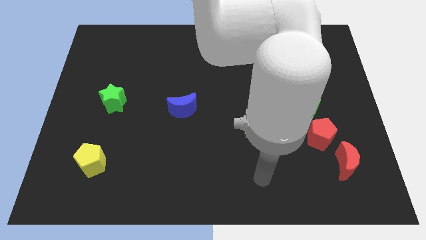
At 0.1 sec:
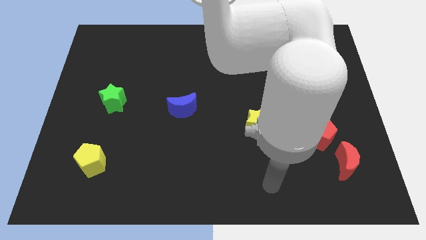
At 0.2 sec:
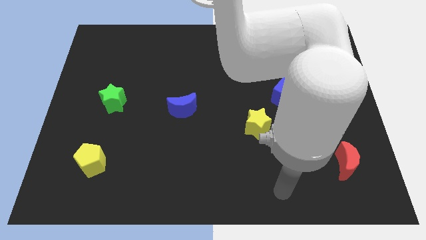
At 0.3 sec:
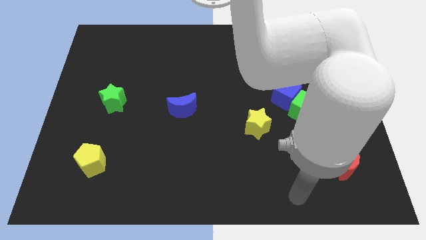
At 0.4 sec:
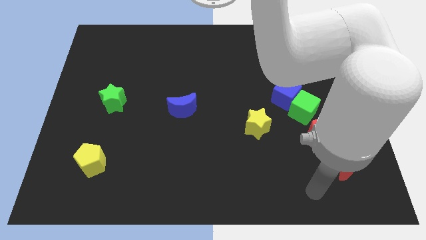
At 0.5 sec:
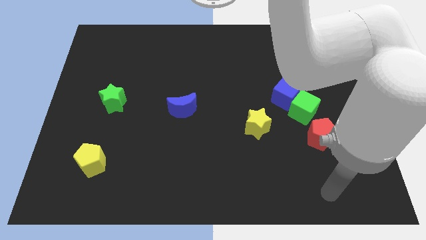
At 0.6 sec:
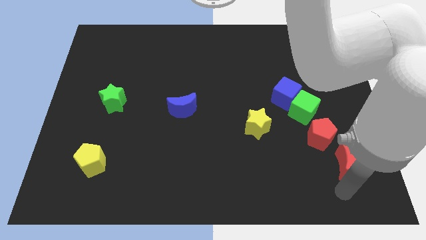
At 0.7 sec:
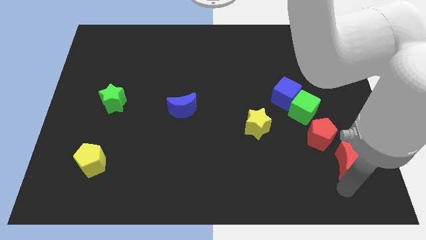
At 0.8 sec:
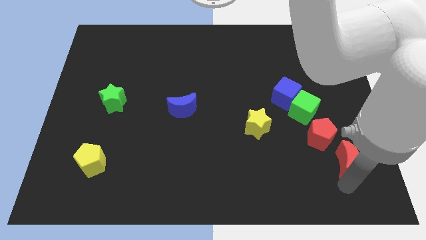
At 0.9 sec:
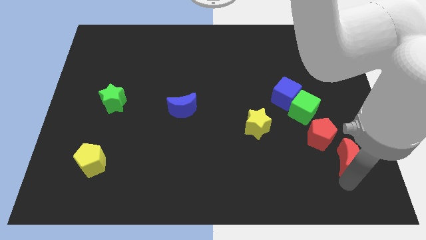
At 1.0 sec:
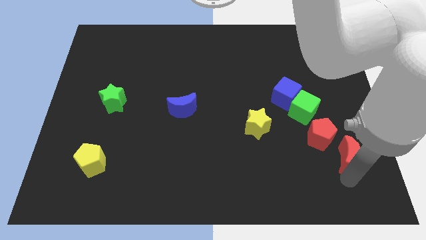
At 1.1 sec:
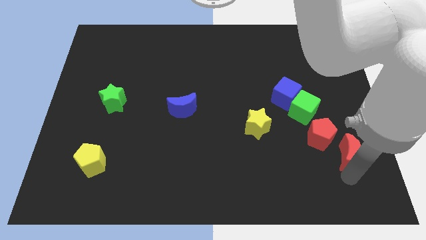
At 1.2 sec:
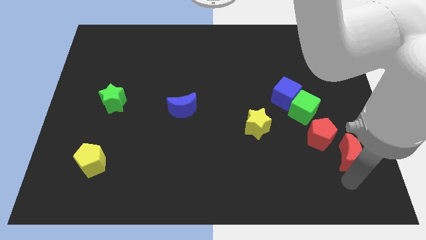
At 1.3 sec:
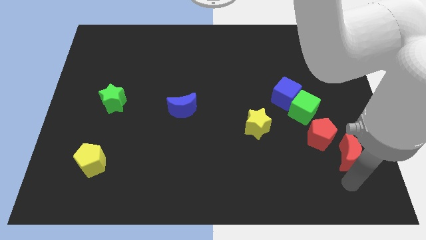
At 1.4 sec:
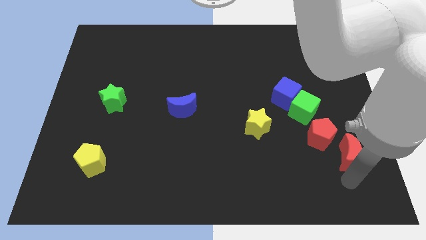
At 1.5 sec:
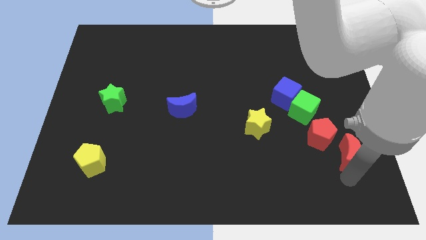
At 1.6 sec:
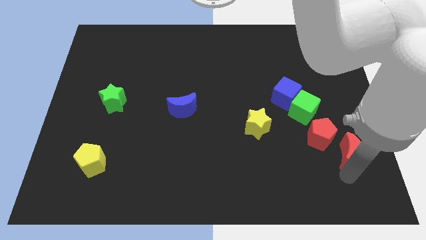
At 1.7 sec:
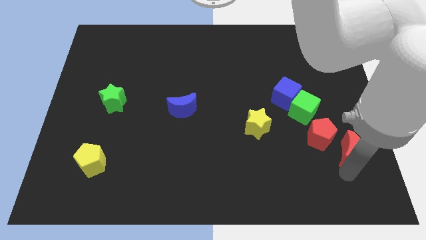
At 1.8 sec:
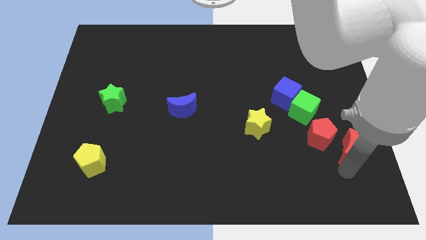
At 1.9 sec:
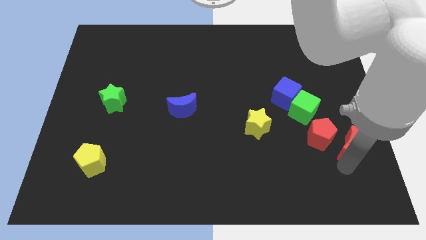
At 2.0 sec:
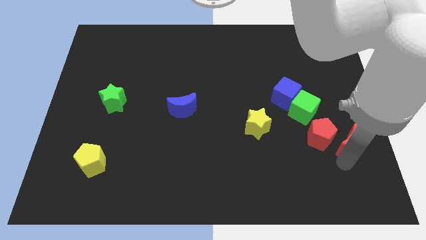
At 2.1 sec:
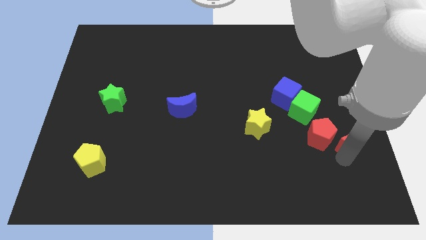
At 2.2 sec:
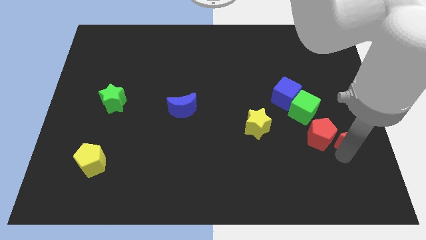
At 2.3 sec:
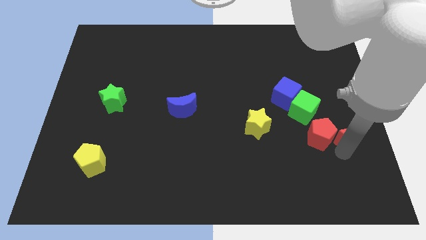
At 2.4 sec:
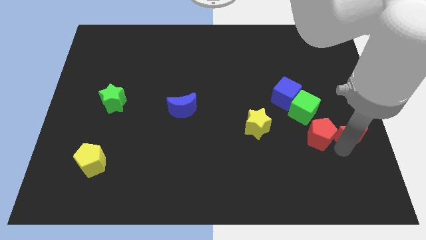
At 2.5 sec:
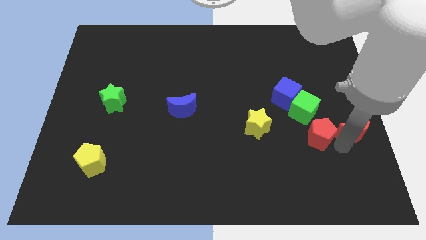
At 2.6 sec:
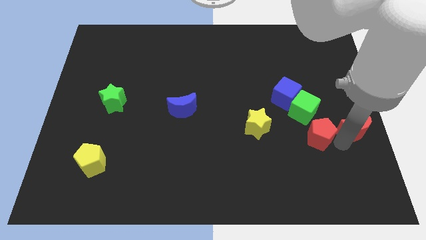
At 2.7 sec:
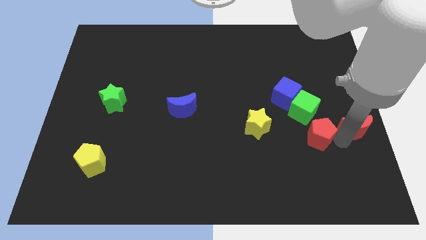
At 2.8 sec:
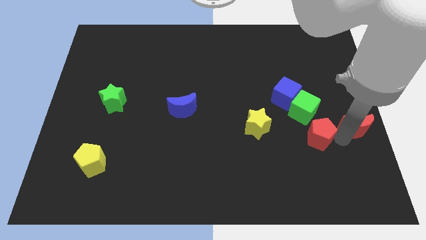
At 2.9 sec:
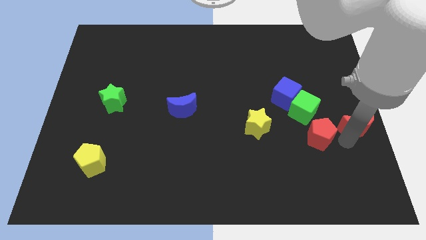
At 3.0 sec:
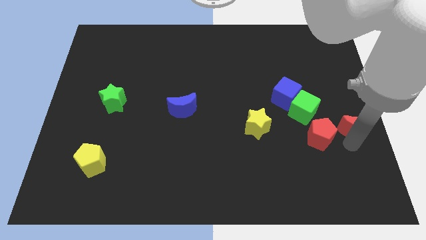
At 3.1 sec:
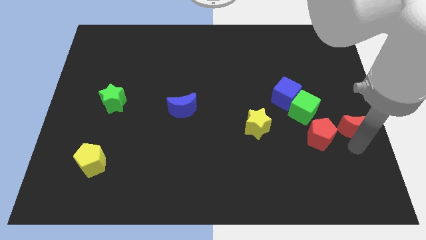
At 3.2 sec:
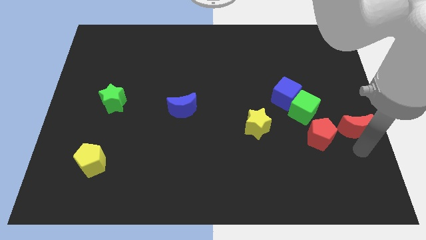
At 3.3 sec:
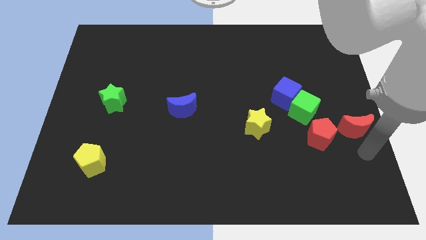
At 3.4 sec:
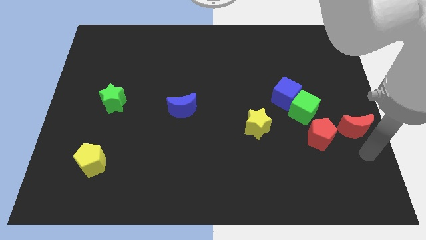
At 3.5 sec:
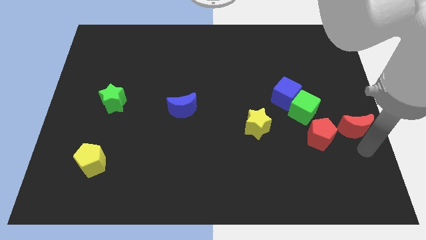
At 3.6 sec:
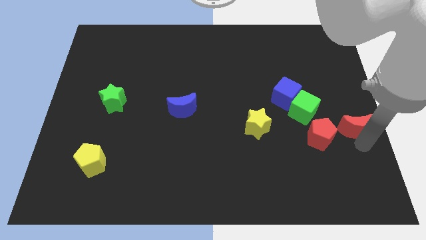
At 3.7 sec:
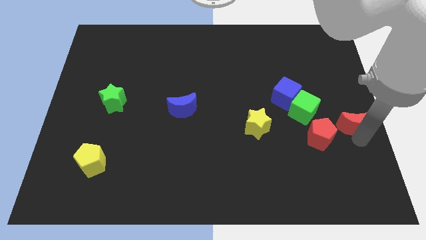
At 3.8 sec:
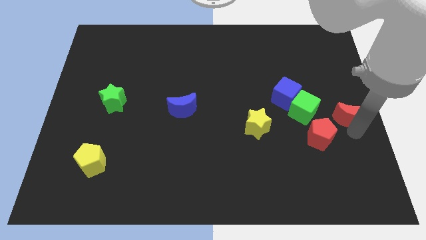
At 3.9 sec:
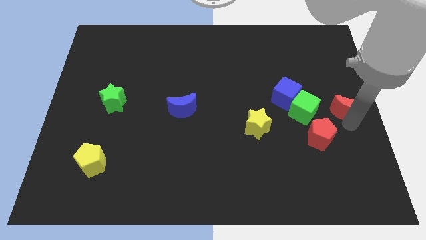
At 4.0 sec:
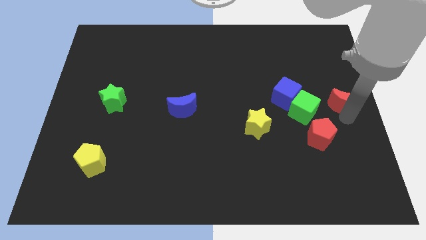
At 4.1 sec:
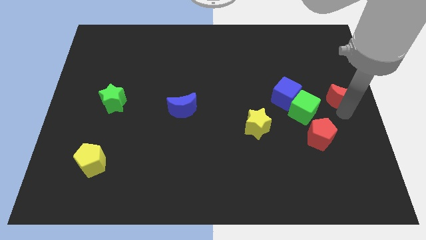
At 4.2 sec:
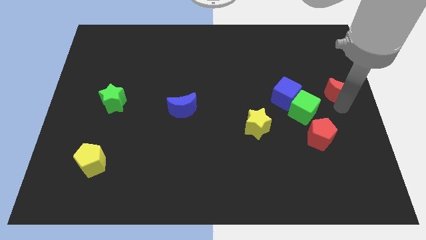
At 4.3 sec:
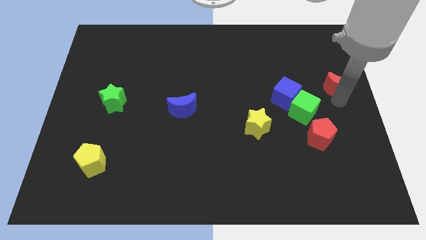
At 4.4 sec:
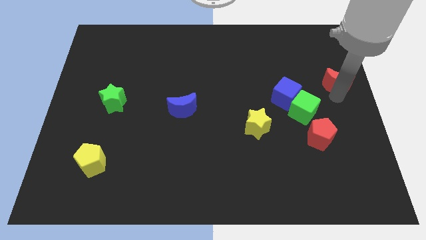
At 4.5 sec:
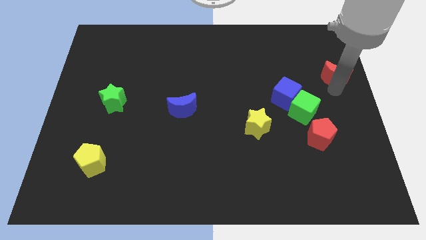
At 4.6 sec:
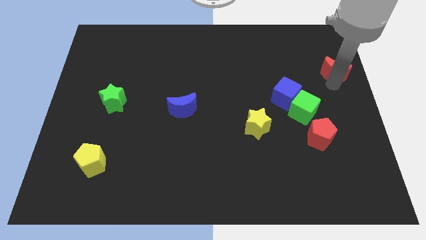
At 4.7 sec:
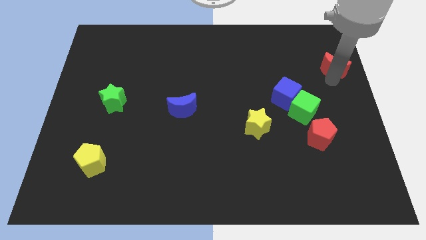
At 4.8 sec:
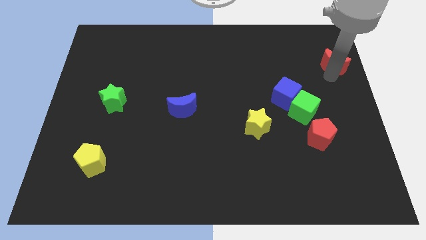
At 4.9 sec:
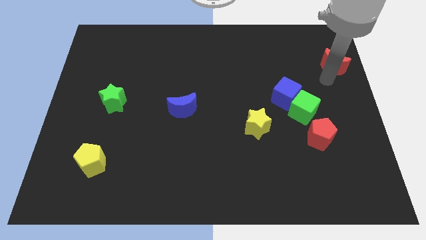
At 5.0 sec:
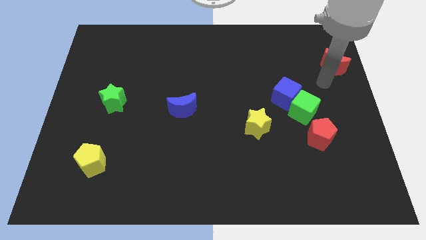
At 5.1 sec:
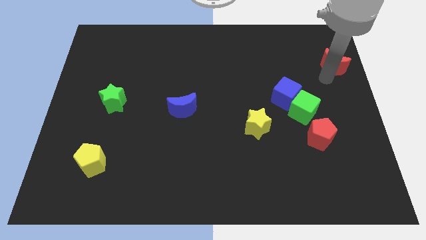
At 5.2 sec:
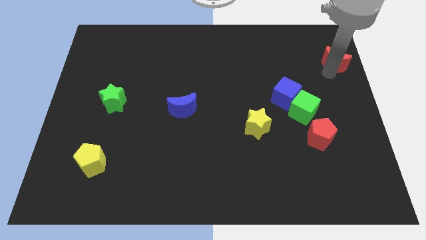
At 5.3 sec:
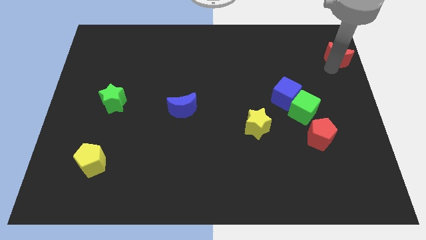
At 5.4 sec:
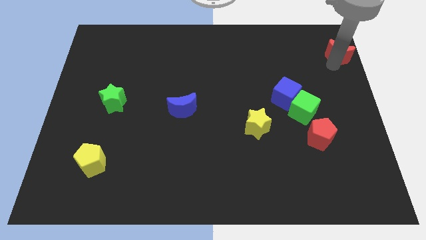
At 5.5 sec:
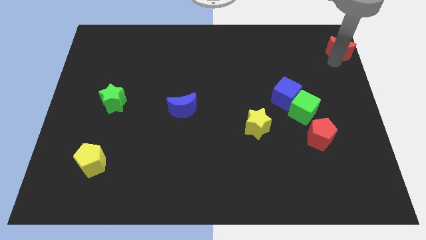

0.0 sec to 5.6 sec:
move the red moon to the upper right corner

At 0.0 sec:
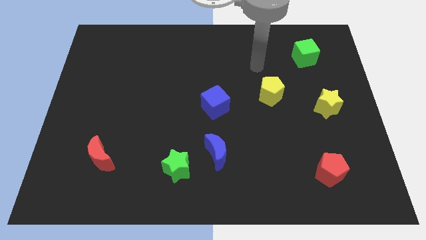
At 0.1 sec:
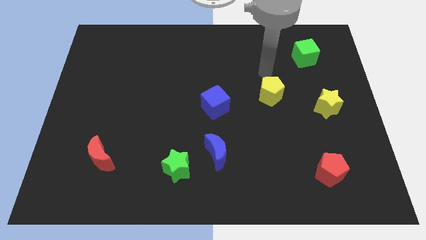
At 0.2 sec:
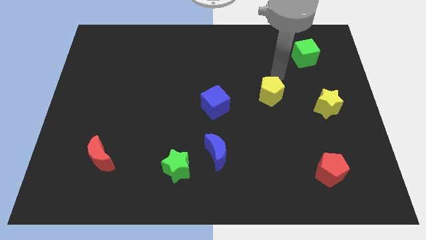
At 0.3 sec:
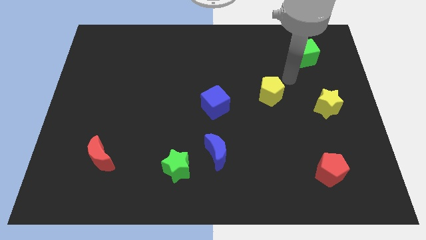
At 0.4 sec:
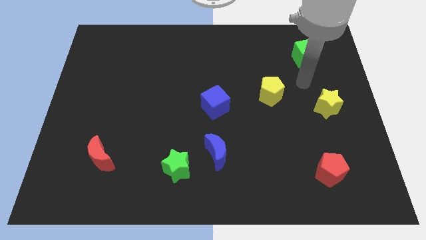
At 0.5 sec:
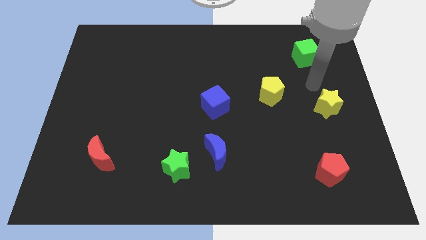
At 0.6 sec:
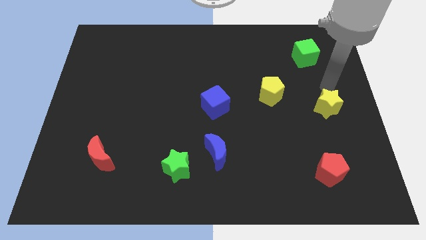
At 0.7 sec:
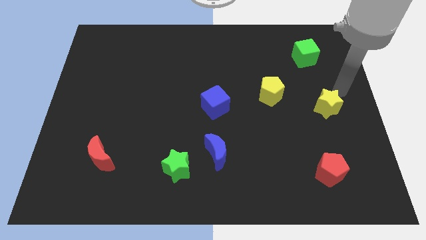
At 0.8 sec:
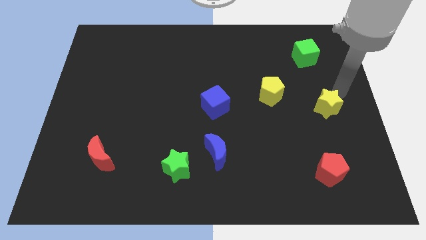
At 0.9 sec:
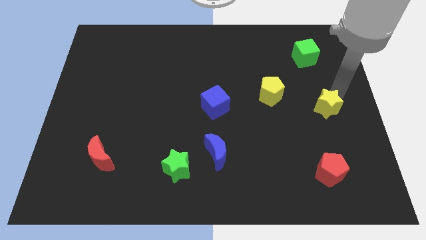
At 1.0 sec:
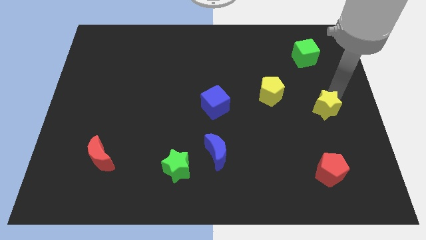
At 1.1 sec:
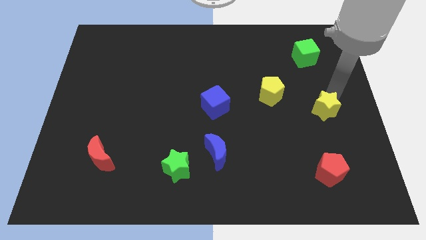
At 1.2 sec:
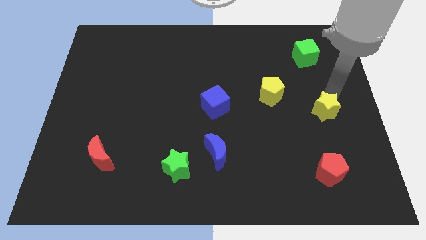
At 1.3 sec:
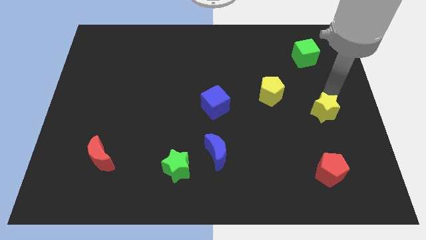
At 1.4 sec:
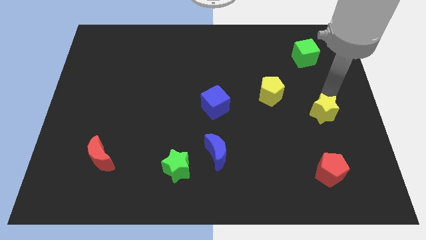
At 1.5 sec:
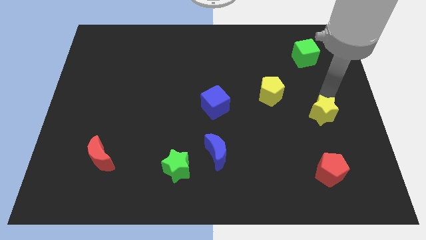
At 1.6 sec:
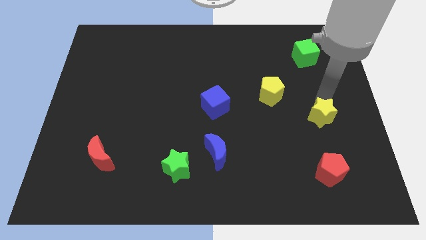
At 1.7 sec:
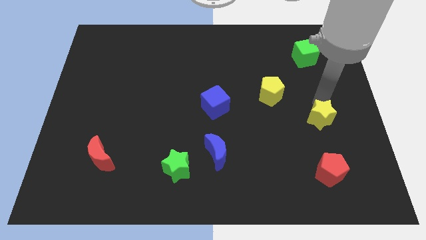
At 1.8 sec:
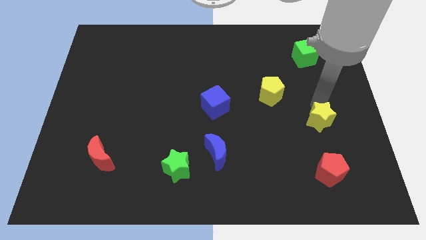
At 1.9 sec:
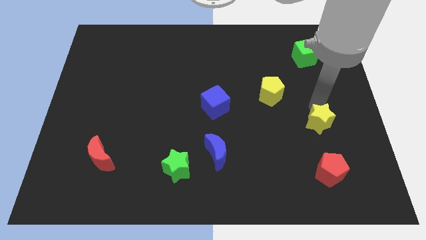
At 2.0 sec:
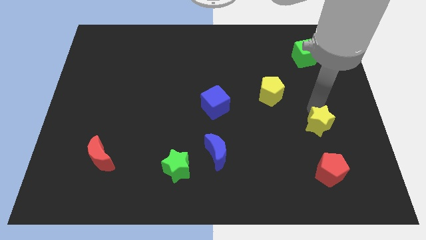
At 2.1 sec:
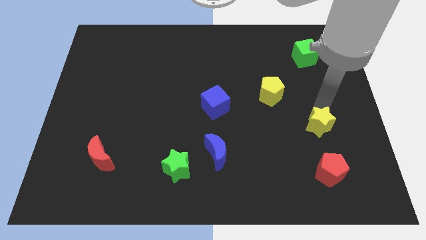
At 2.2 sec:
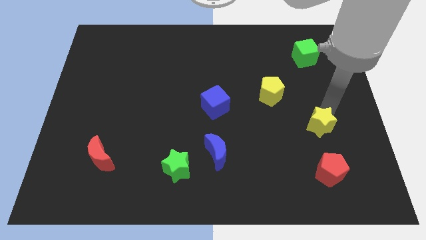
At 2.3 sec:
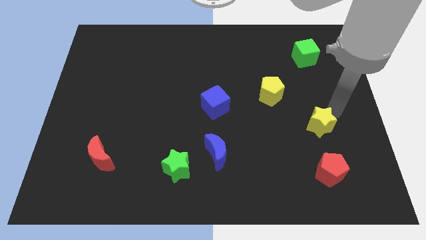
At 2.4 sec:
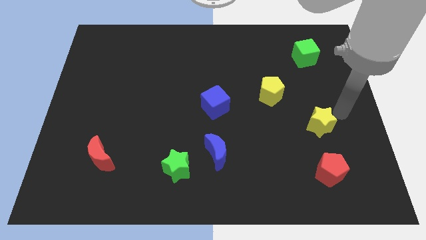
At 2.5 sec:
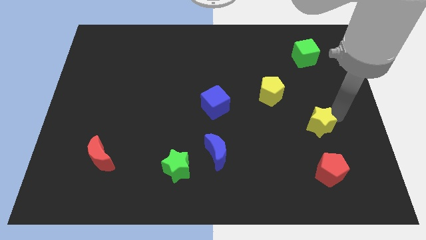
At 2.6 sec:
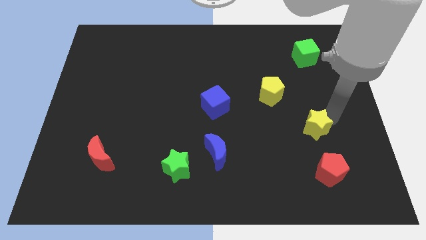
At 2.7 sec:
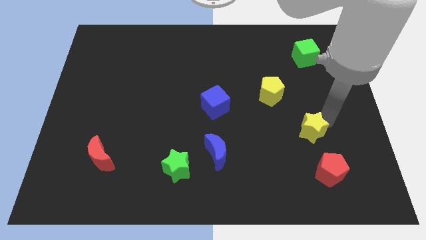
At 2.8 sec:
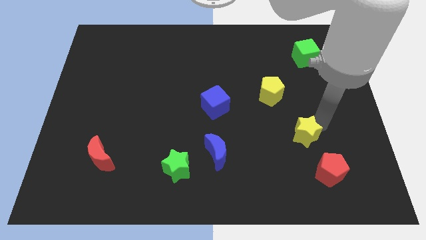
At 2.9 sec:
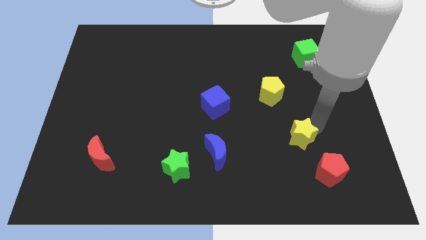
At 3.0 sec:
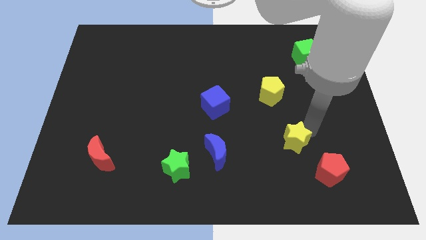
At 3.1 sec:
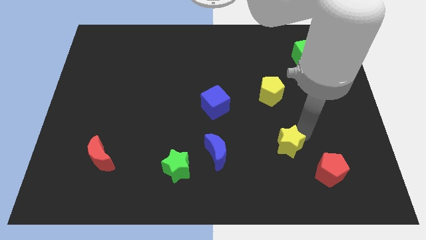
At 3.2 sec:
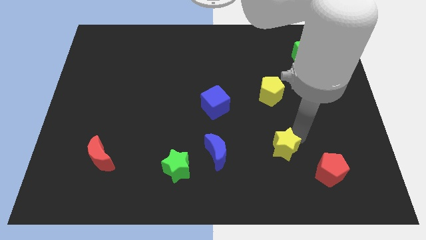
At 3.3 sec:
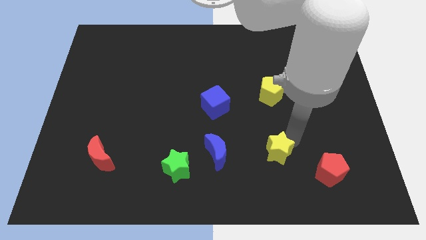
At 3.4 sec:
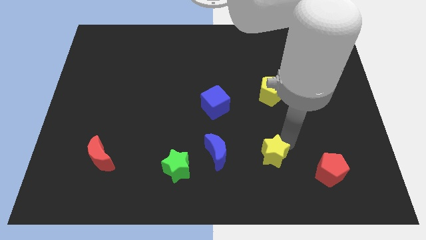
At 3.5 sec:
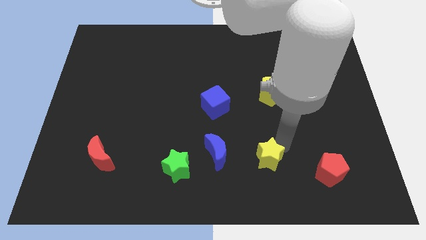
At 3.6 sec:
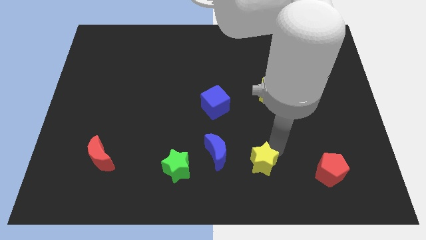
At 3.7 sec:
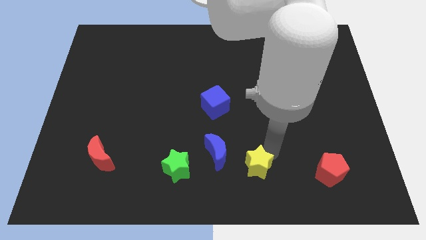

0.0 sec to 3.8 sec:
put the yellow star to the bottom side
